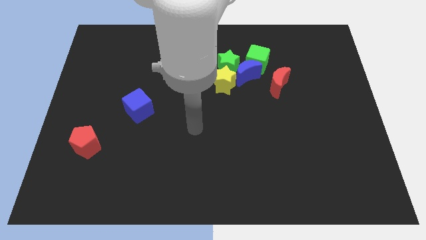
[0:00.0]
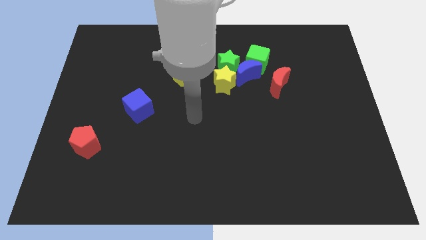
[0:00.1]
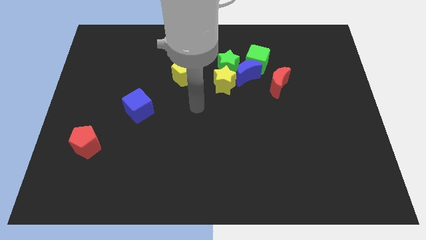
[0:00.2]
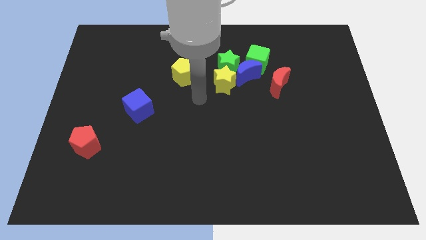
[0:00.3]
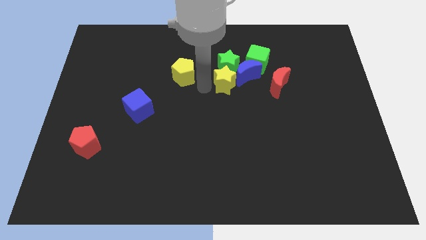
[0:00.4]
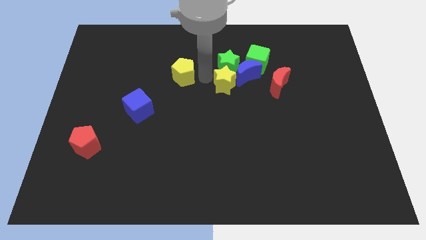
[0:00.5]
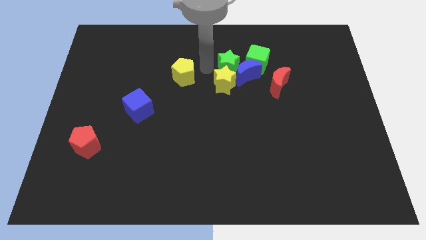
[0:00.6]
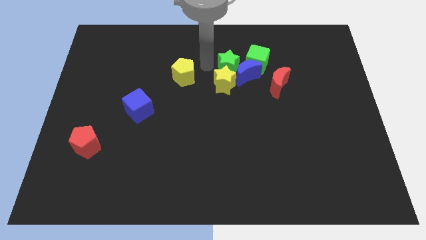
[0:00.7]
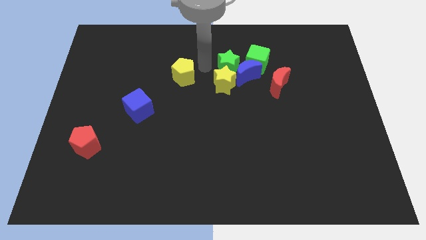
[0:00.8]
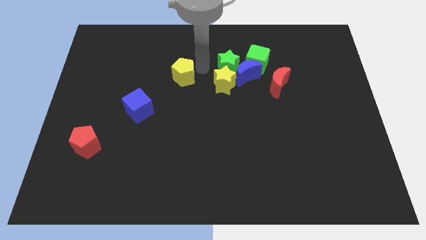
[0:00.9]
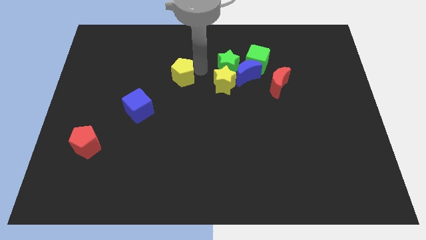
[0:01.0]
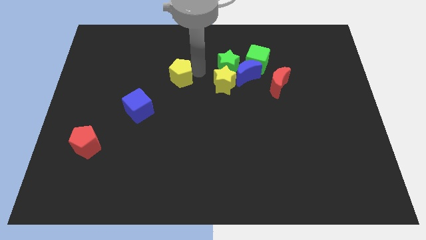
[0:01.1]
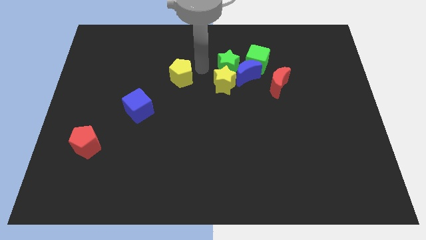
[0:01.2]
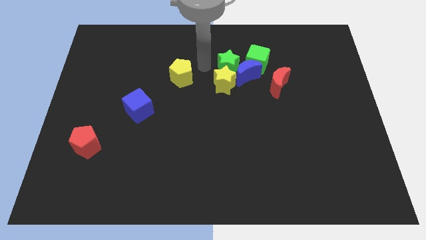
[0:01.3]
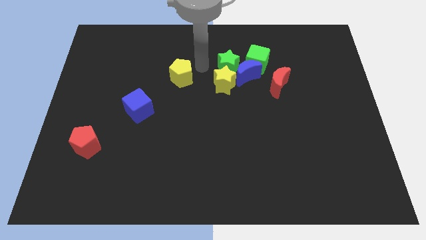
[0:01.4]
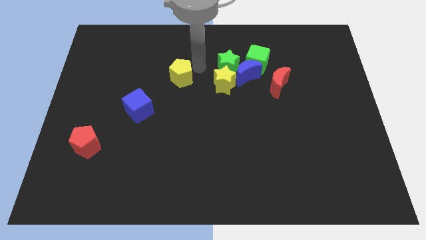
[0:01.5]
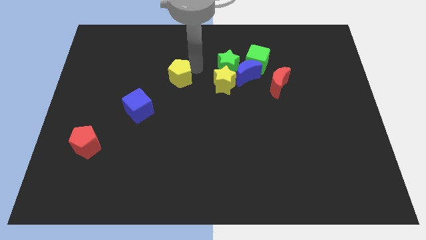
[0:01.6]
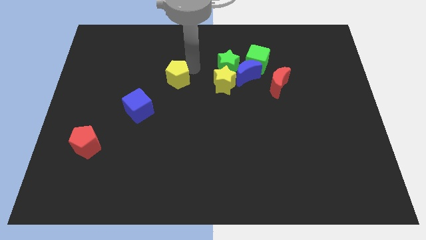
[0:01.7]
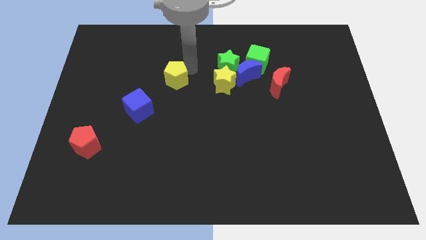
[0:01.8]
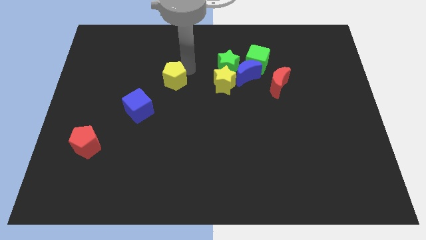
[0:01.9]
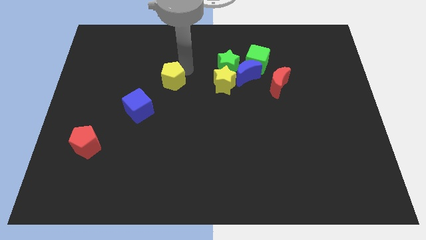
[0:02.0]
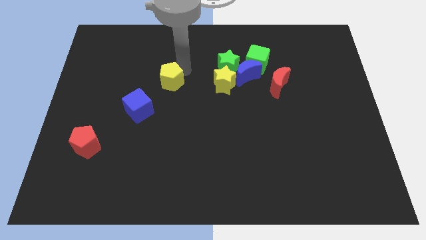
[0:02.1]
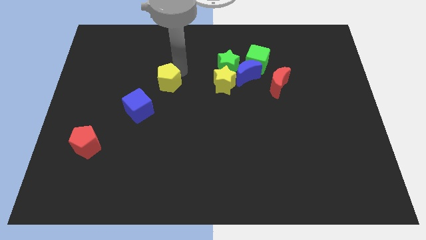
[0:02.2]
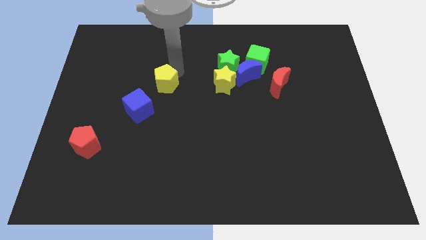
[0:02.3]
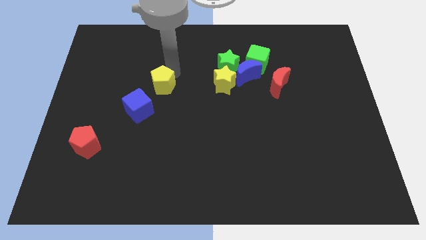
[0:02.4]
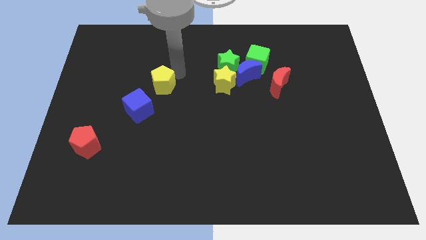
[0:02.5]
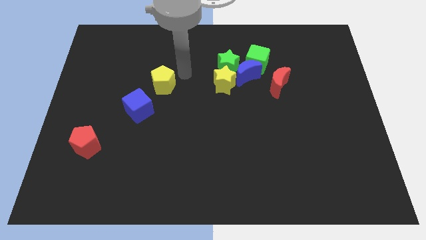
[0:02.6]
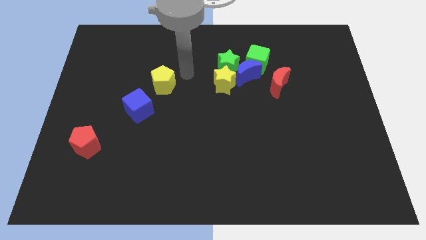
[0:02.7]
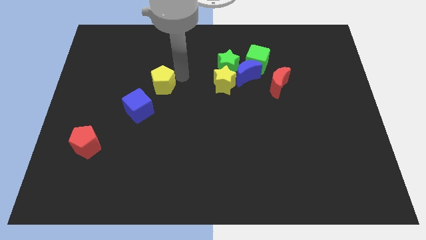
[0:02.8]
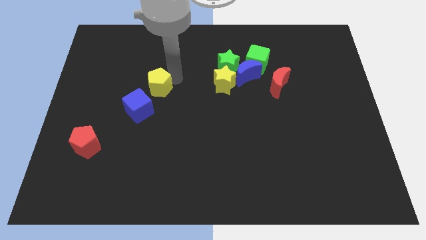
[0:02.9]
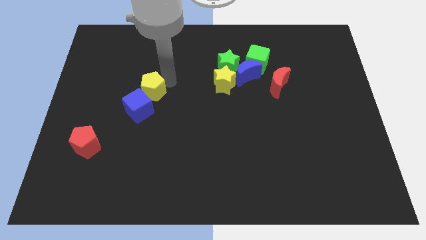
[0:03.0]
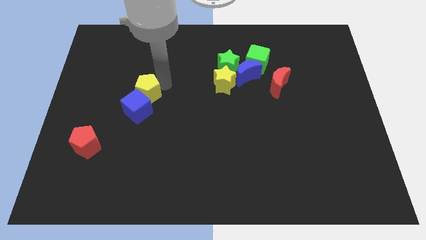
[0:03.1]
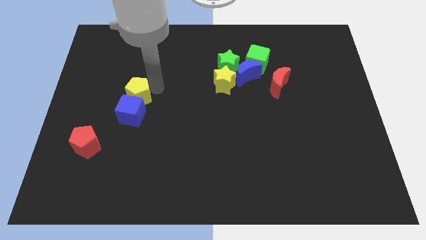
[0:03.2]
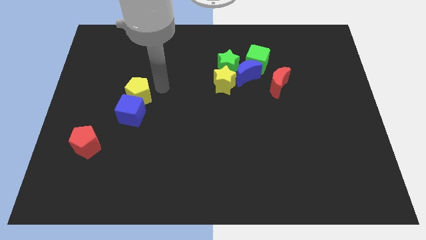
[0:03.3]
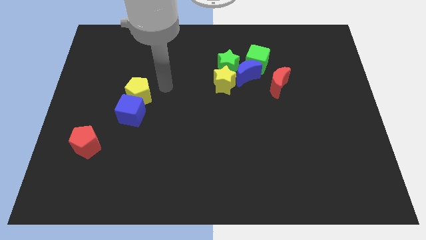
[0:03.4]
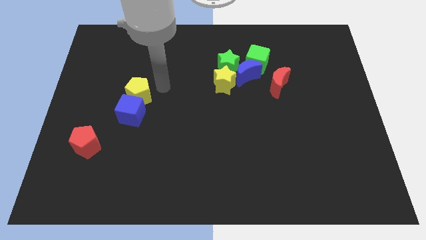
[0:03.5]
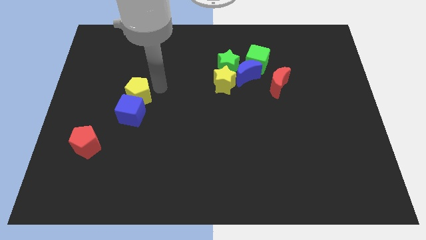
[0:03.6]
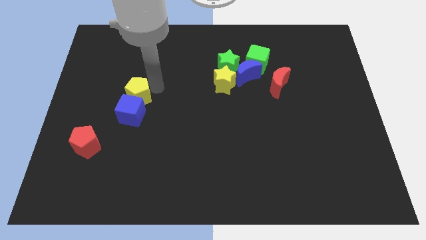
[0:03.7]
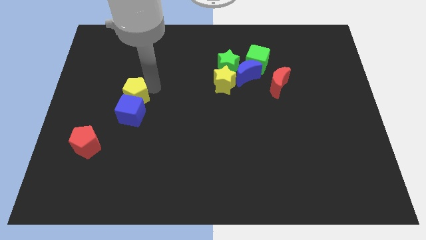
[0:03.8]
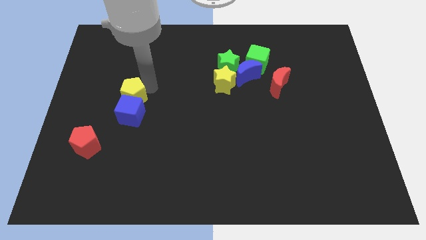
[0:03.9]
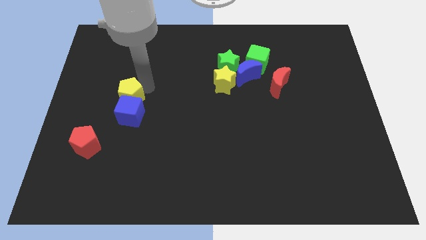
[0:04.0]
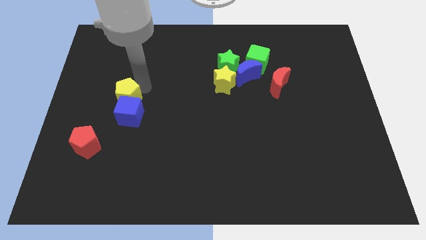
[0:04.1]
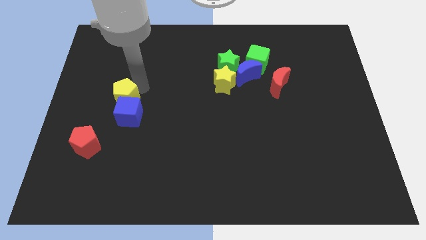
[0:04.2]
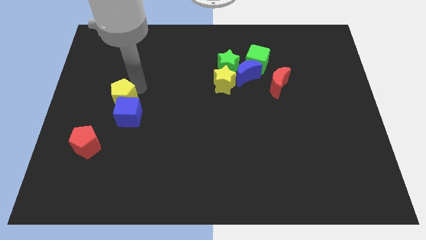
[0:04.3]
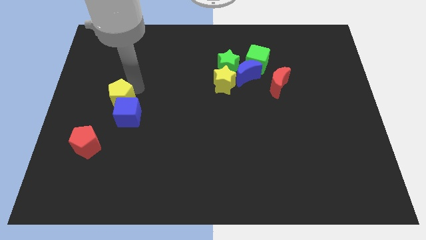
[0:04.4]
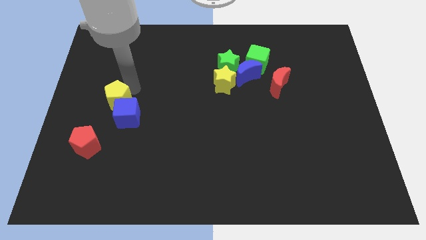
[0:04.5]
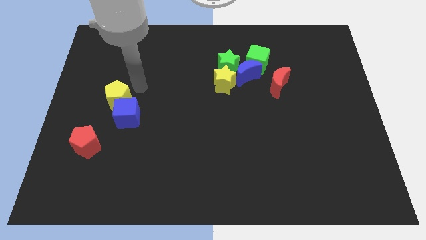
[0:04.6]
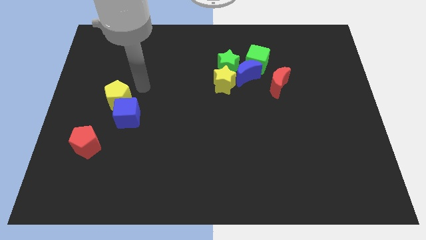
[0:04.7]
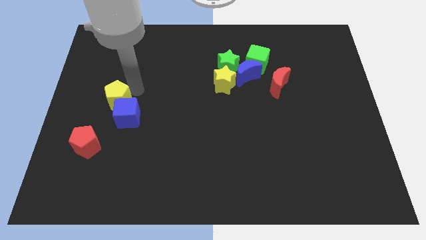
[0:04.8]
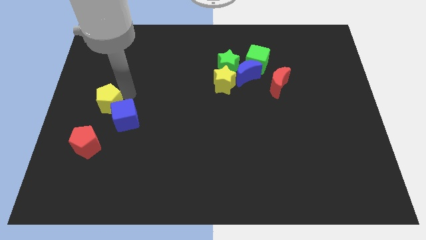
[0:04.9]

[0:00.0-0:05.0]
move the yellow pentagon to the left side of the blue cube

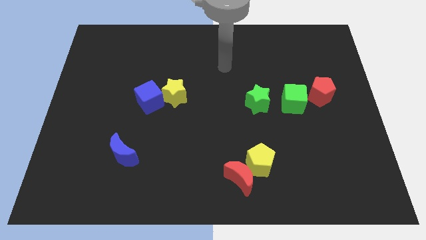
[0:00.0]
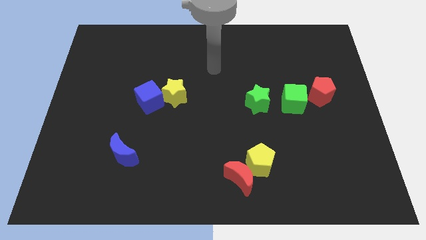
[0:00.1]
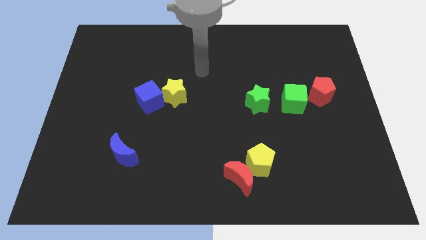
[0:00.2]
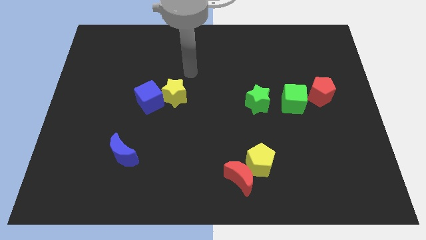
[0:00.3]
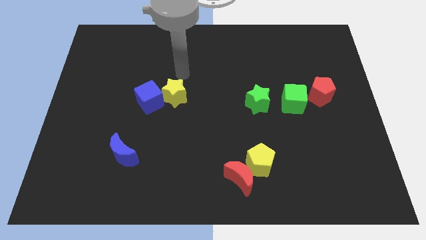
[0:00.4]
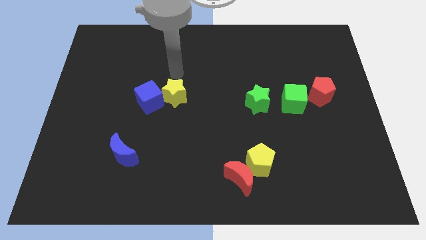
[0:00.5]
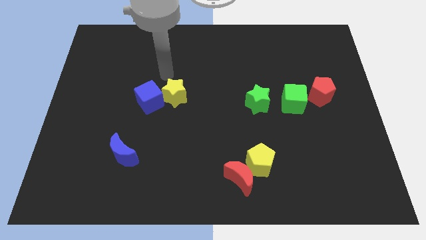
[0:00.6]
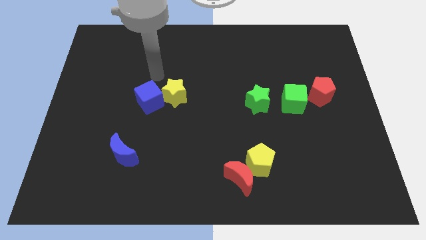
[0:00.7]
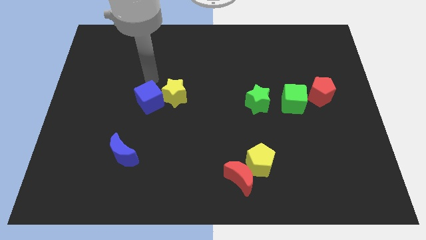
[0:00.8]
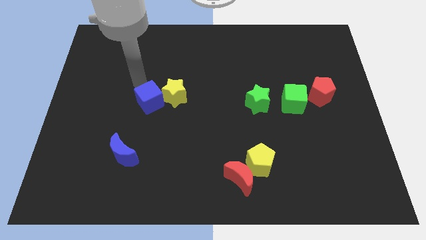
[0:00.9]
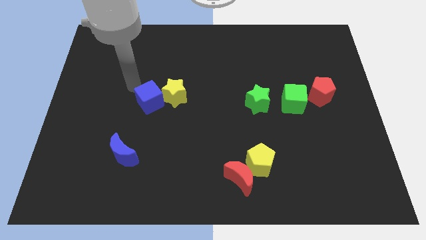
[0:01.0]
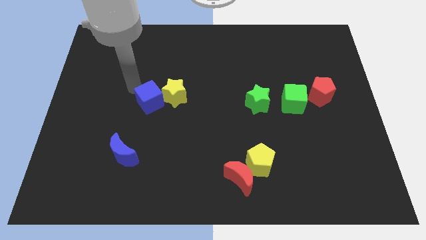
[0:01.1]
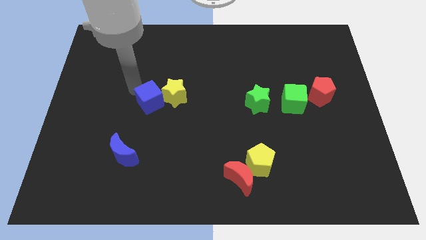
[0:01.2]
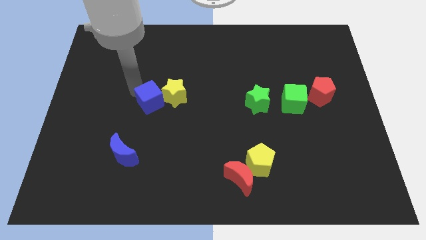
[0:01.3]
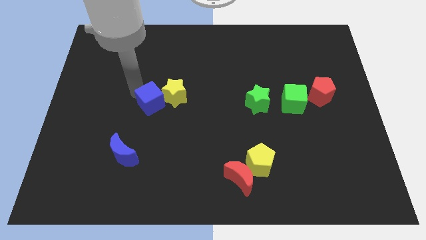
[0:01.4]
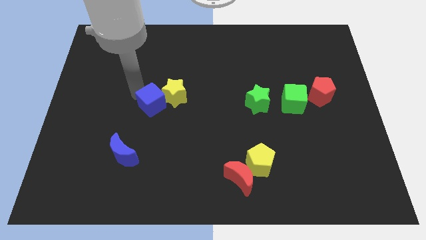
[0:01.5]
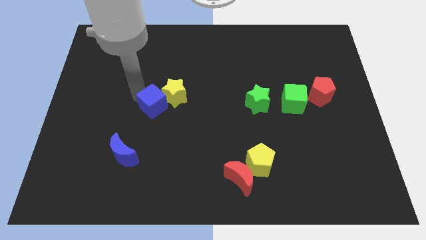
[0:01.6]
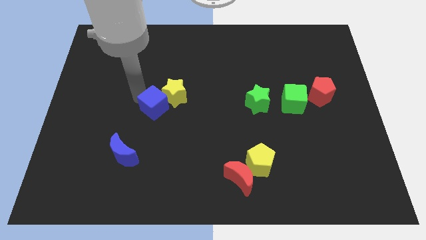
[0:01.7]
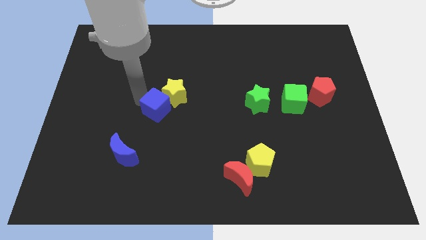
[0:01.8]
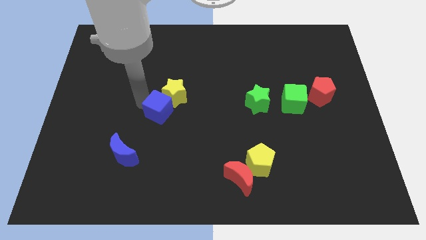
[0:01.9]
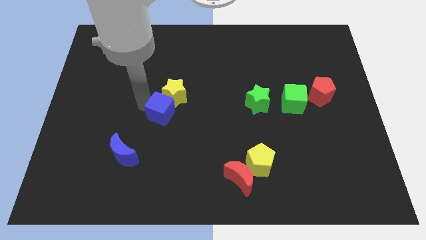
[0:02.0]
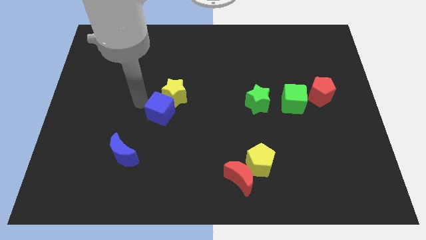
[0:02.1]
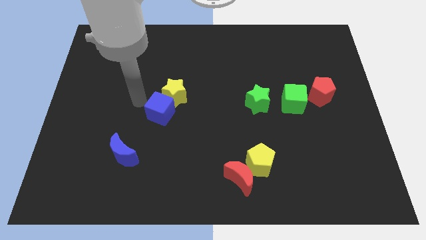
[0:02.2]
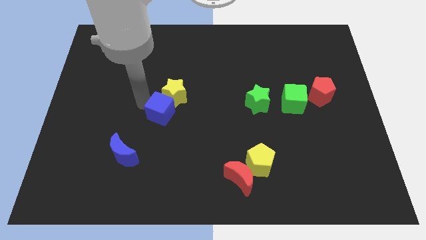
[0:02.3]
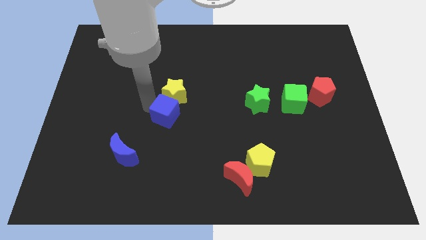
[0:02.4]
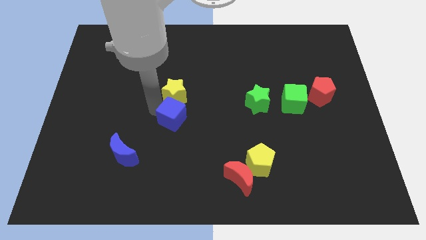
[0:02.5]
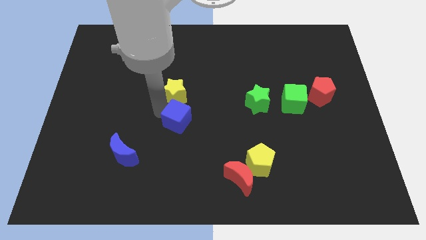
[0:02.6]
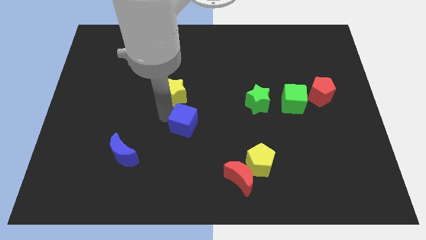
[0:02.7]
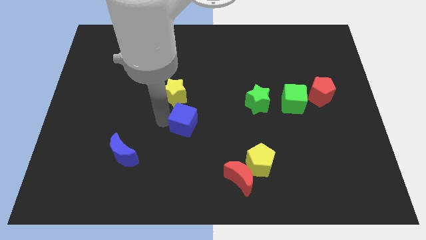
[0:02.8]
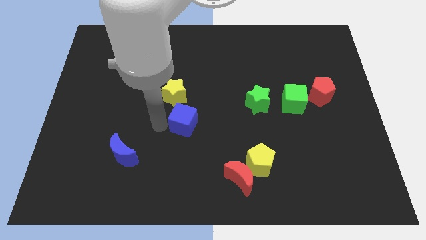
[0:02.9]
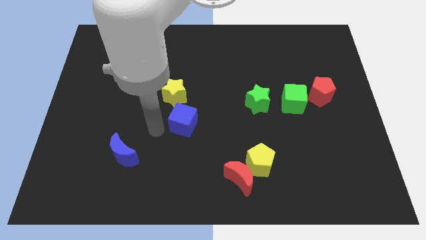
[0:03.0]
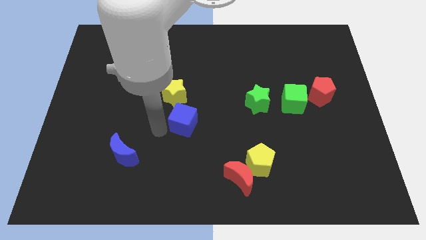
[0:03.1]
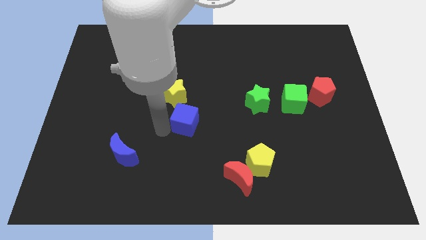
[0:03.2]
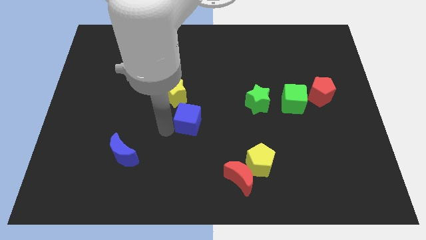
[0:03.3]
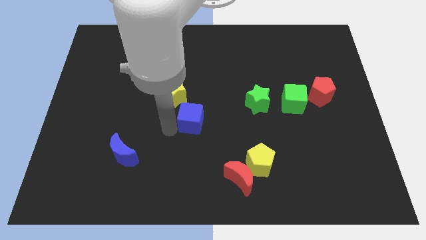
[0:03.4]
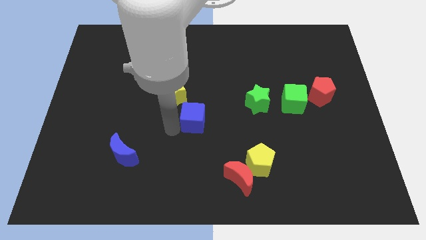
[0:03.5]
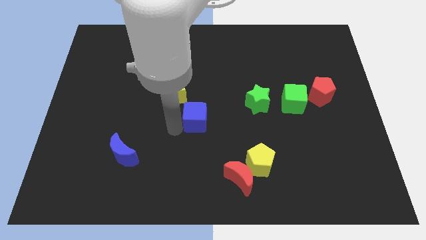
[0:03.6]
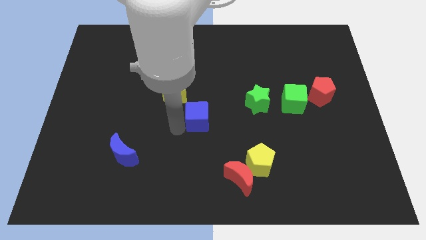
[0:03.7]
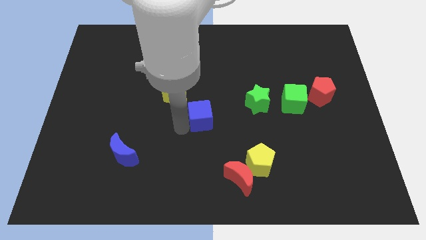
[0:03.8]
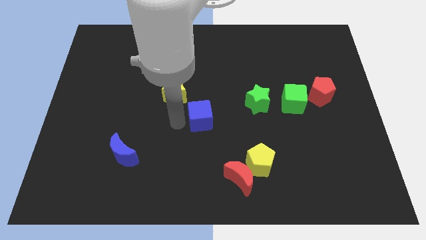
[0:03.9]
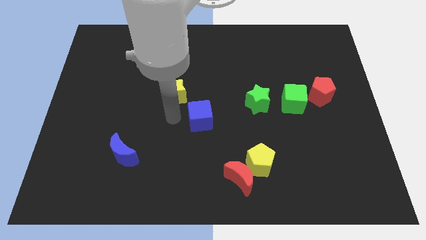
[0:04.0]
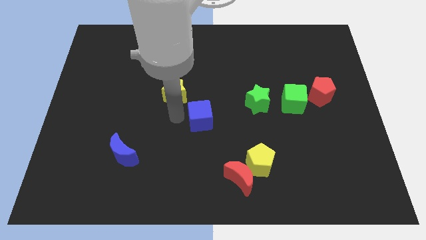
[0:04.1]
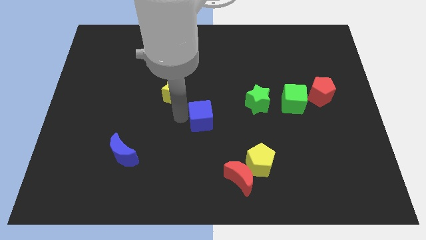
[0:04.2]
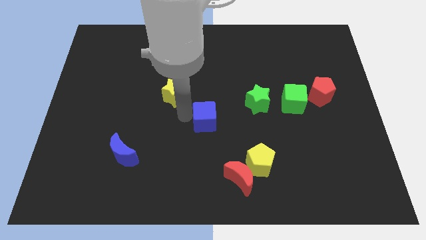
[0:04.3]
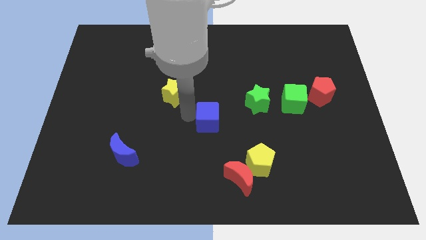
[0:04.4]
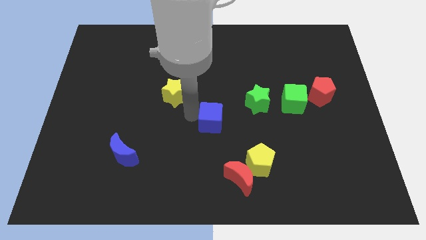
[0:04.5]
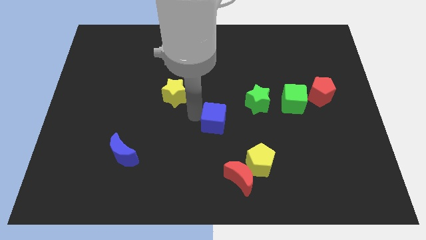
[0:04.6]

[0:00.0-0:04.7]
slide the blue cube to the bottom left side of the green star
